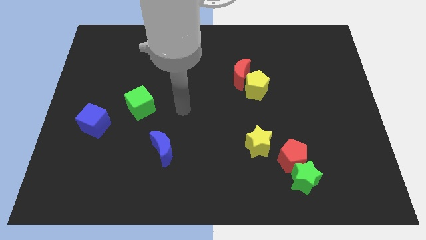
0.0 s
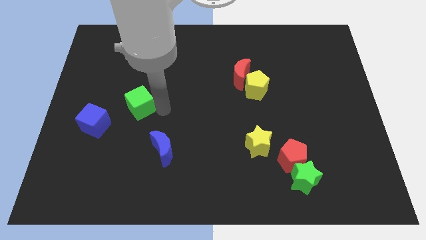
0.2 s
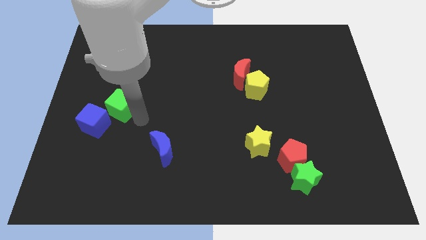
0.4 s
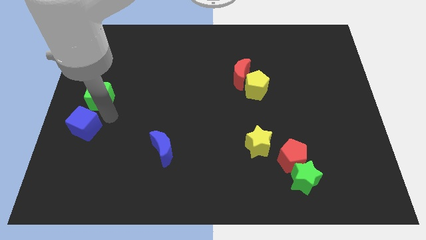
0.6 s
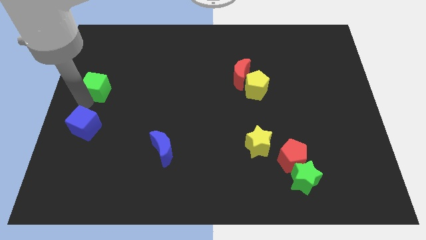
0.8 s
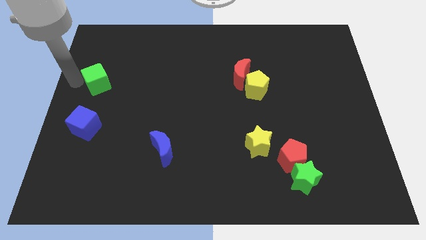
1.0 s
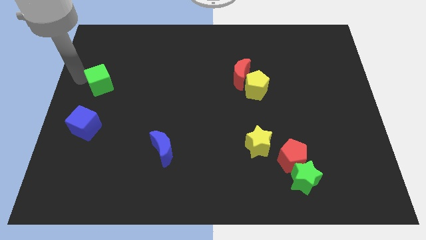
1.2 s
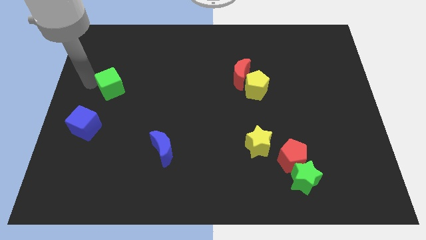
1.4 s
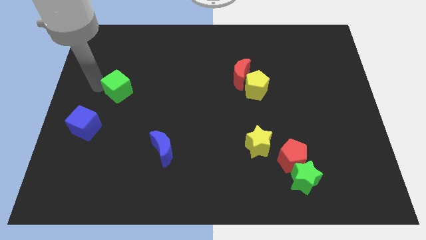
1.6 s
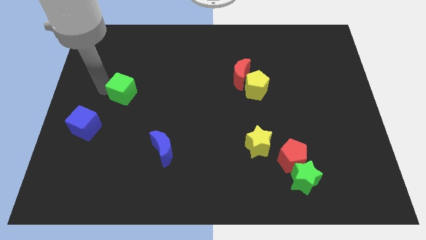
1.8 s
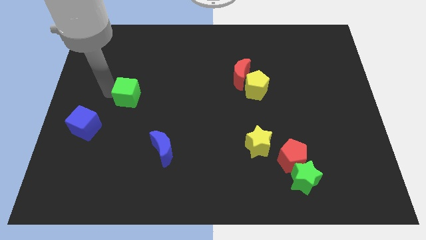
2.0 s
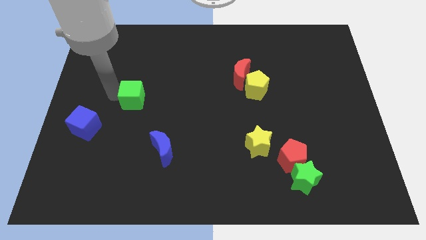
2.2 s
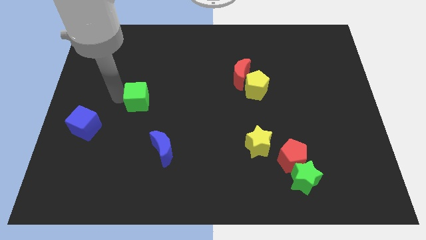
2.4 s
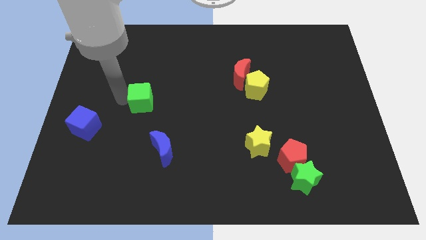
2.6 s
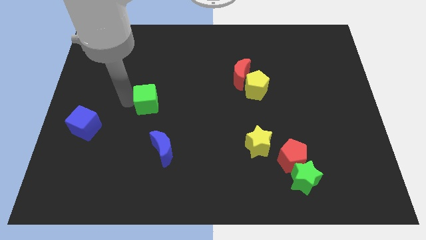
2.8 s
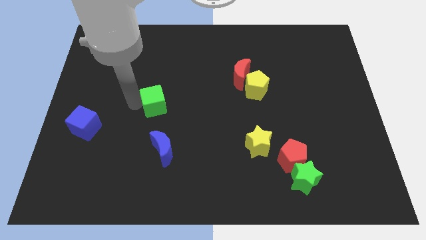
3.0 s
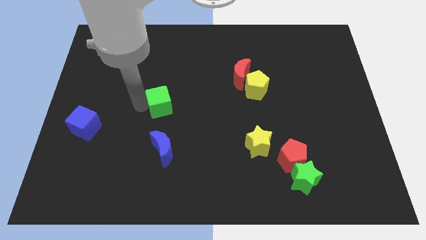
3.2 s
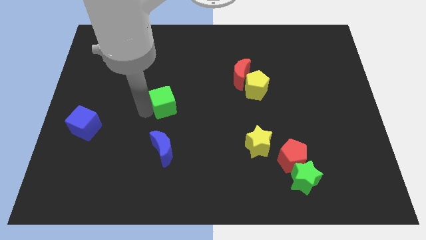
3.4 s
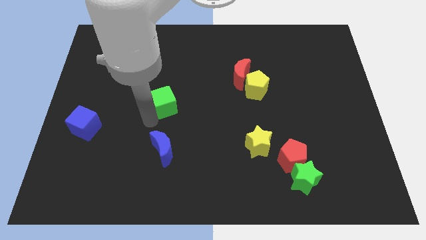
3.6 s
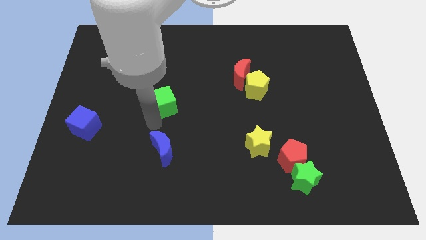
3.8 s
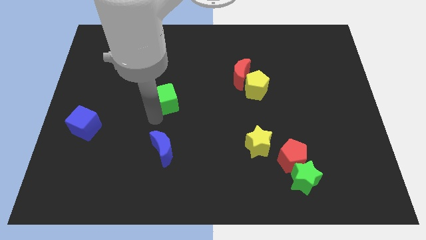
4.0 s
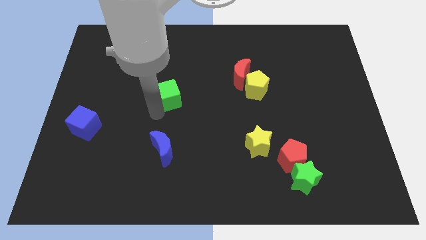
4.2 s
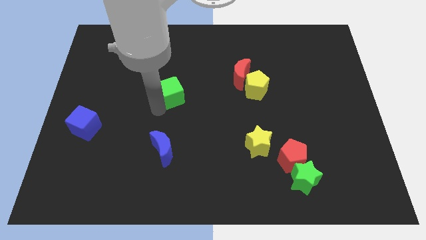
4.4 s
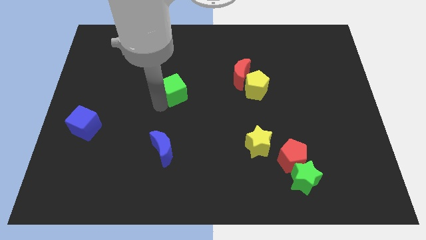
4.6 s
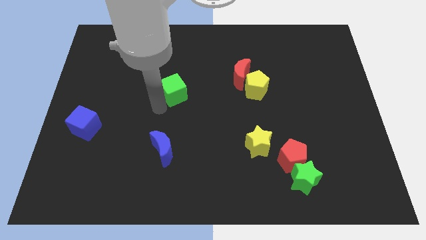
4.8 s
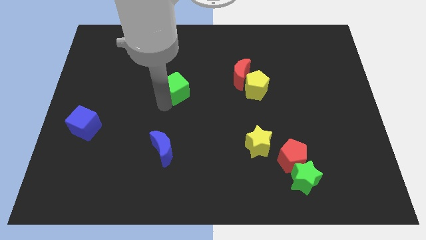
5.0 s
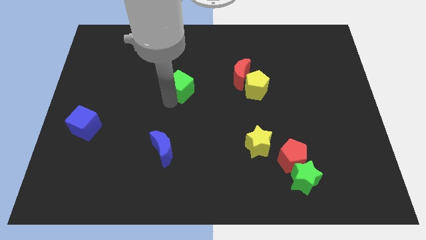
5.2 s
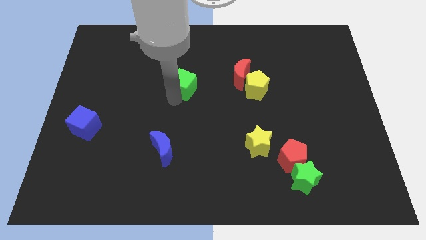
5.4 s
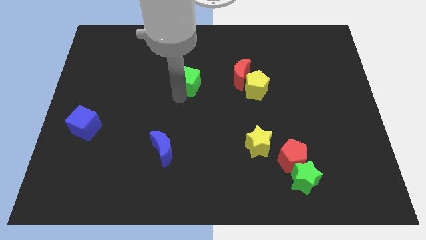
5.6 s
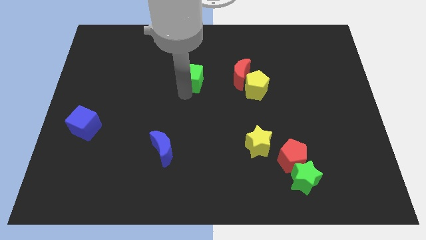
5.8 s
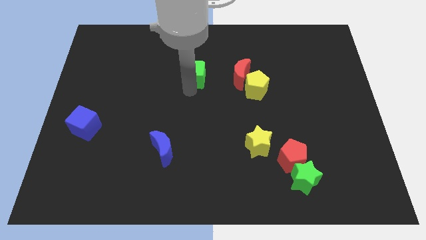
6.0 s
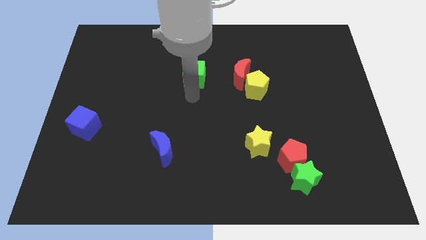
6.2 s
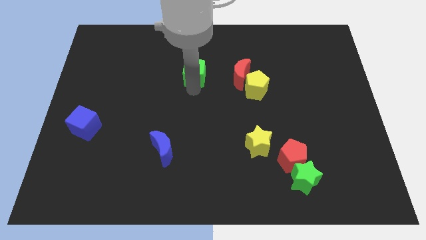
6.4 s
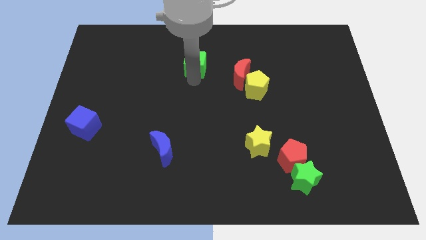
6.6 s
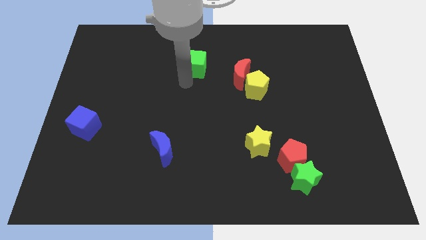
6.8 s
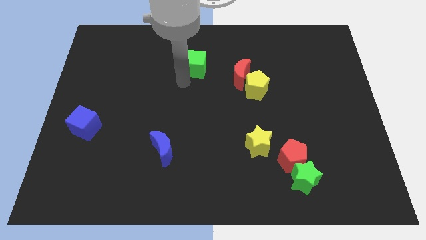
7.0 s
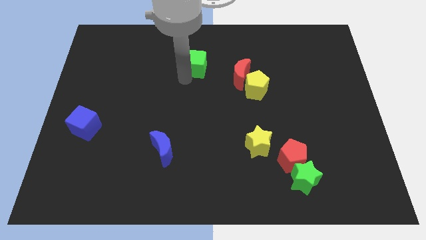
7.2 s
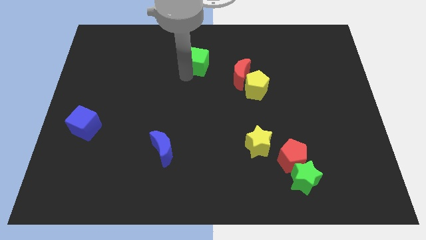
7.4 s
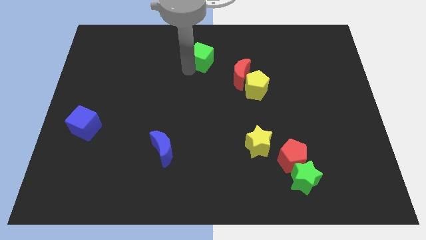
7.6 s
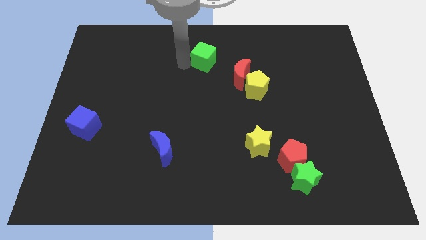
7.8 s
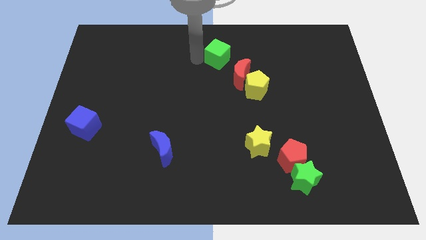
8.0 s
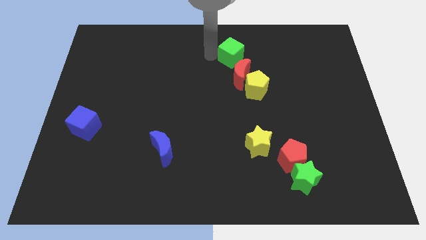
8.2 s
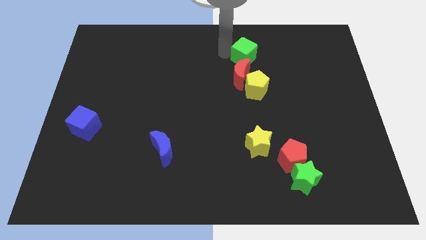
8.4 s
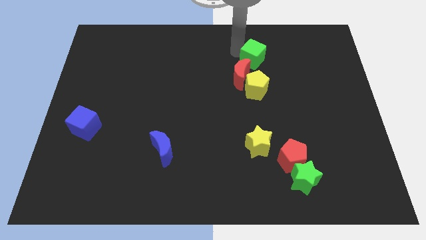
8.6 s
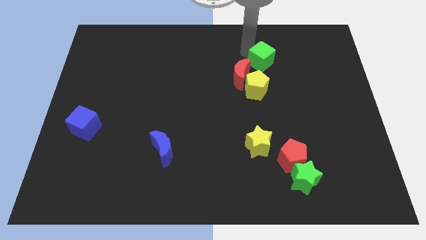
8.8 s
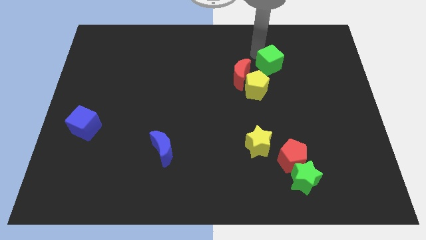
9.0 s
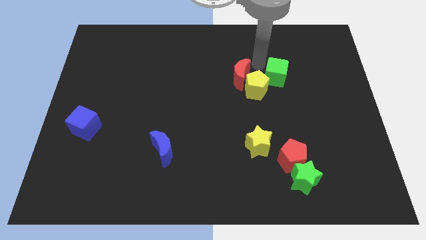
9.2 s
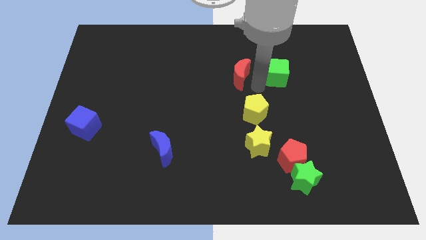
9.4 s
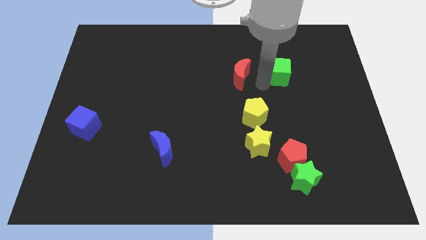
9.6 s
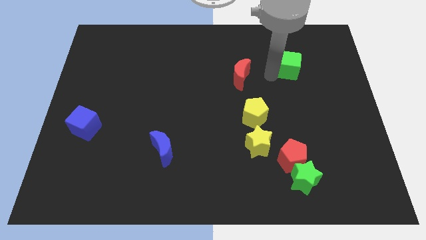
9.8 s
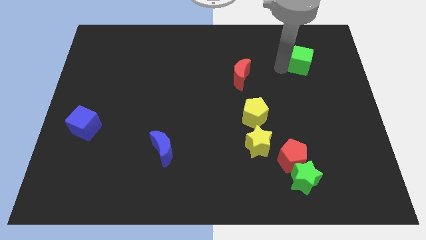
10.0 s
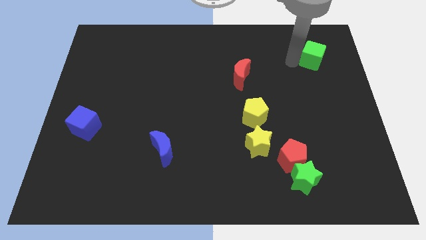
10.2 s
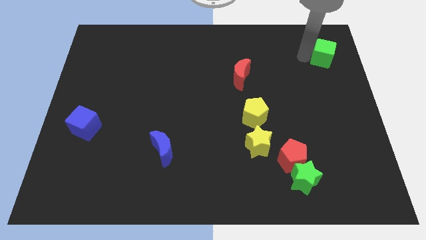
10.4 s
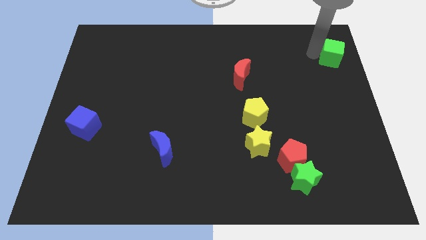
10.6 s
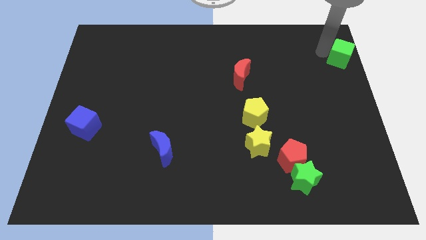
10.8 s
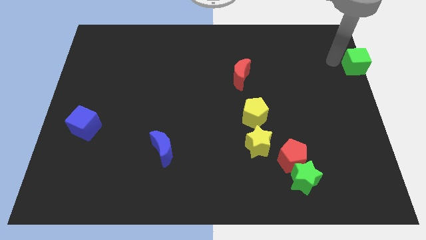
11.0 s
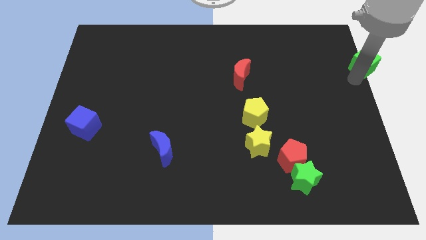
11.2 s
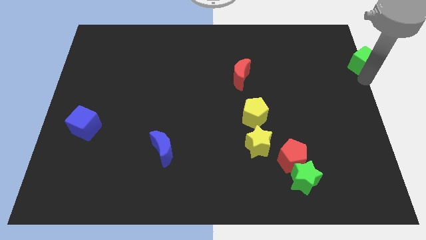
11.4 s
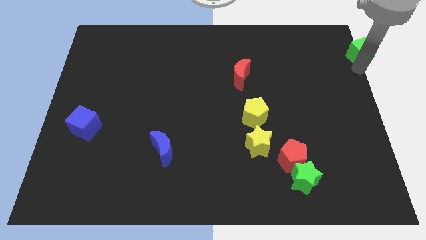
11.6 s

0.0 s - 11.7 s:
put the green cube to the upper right corner
